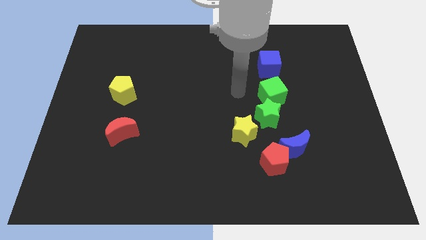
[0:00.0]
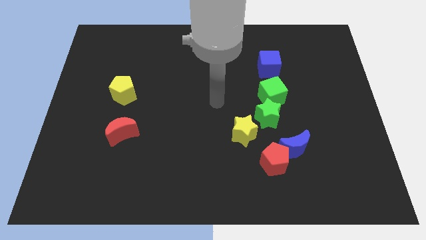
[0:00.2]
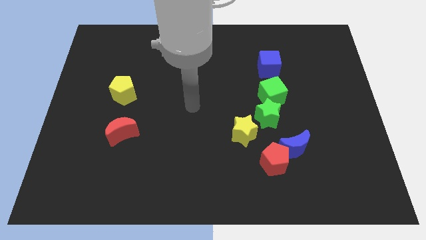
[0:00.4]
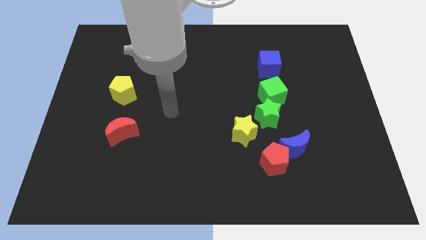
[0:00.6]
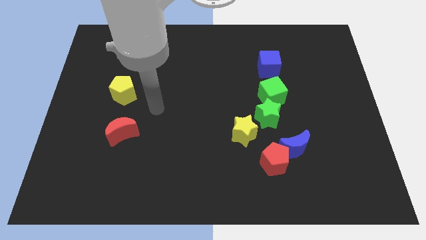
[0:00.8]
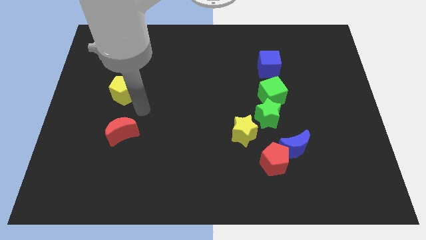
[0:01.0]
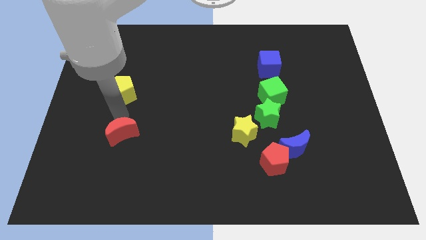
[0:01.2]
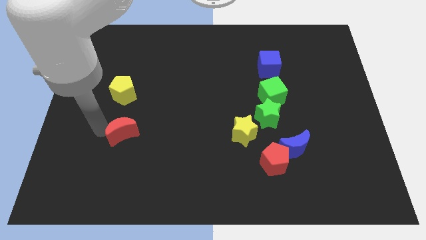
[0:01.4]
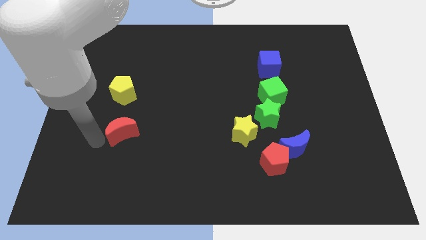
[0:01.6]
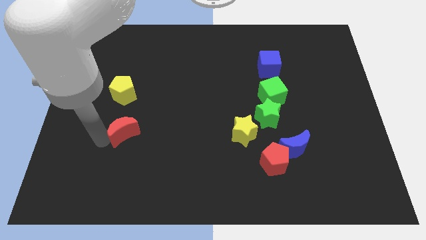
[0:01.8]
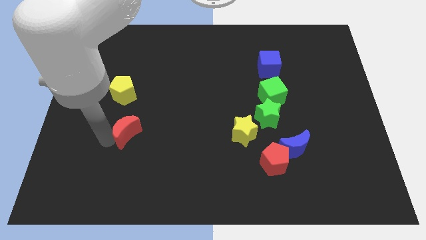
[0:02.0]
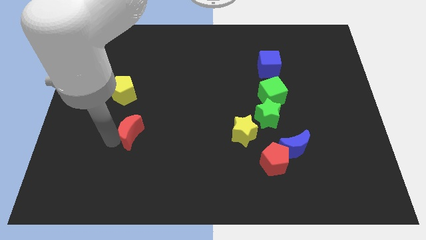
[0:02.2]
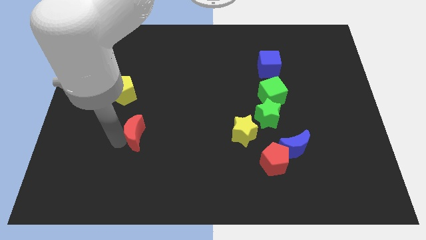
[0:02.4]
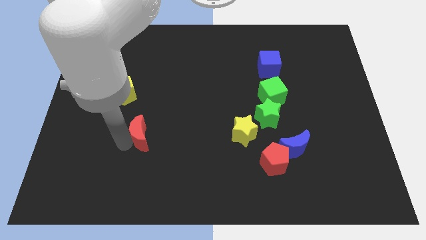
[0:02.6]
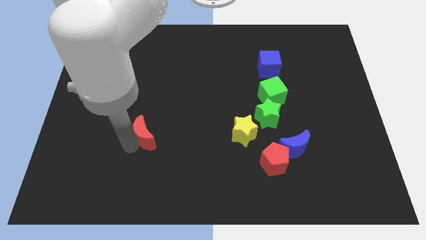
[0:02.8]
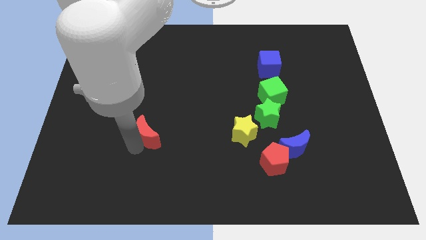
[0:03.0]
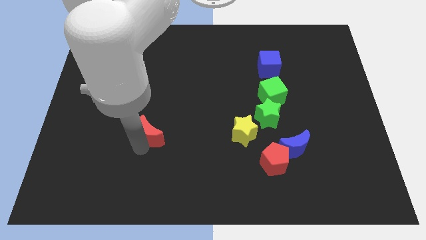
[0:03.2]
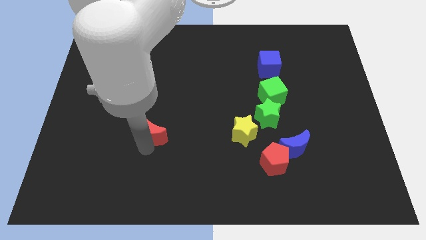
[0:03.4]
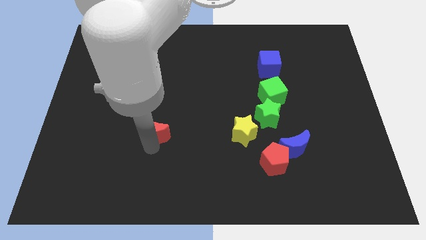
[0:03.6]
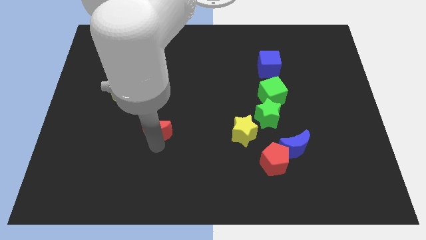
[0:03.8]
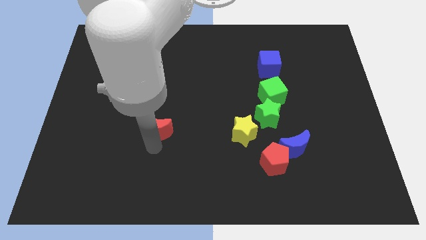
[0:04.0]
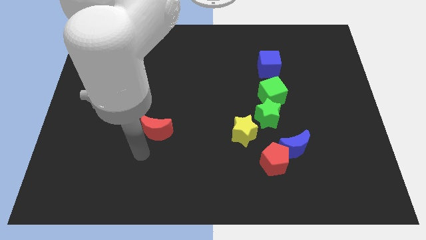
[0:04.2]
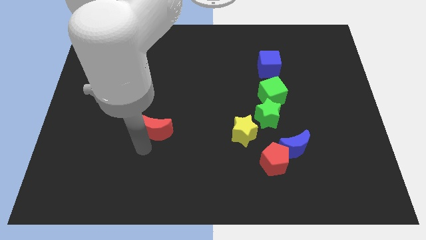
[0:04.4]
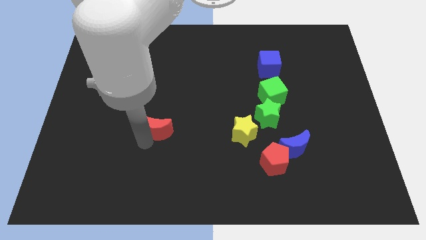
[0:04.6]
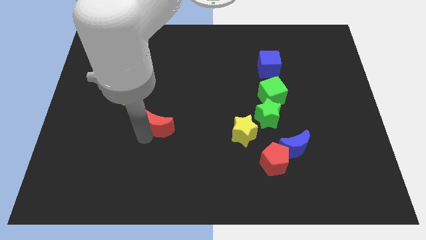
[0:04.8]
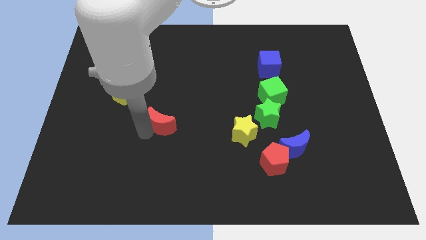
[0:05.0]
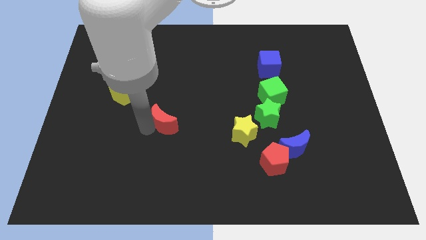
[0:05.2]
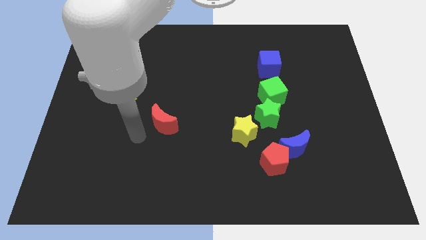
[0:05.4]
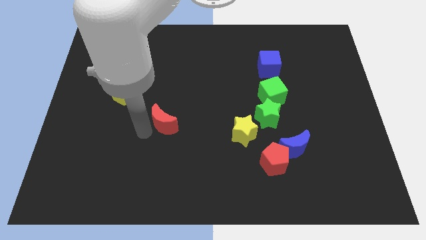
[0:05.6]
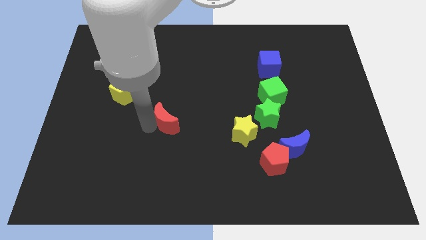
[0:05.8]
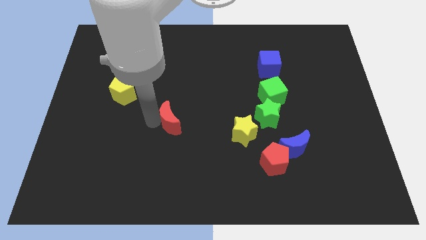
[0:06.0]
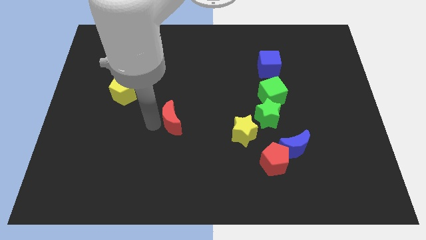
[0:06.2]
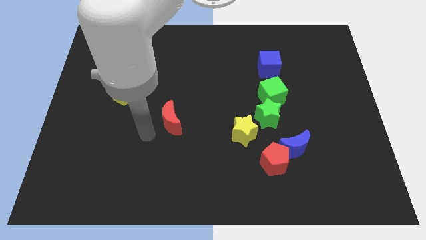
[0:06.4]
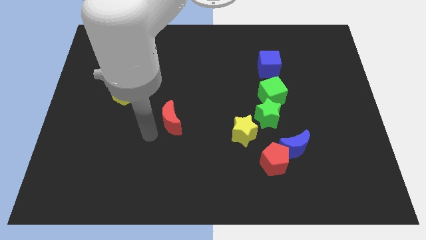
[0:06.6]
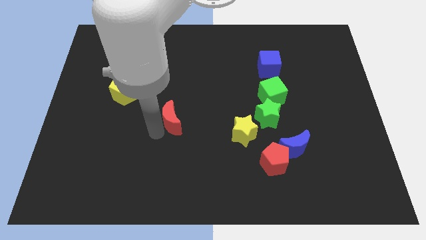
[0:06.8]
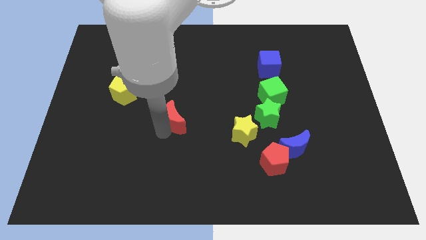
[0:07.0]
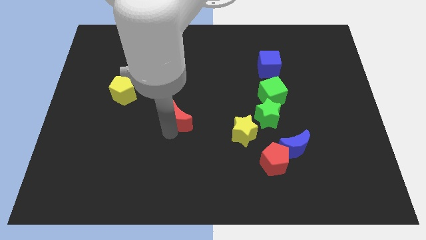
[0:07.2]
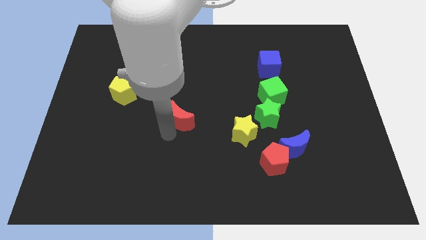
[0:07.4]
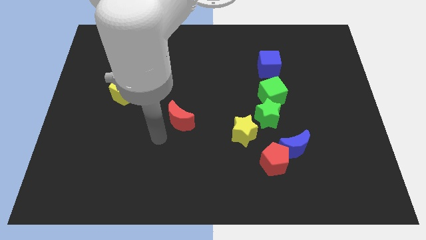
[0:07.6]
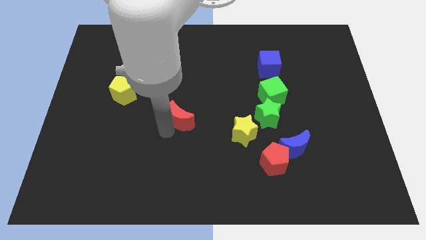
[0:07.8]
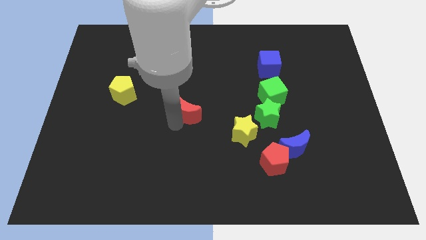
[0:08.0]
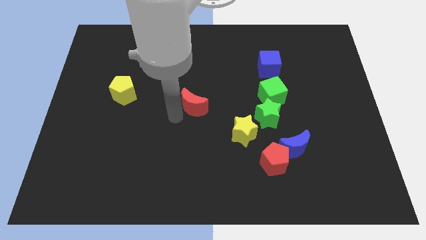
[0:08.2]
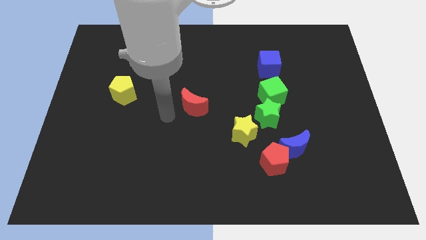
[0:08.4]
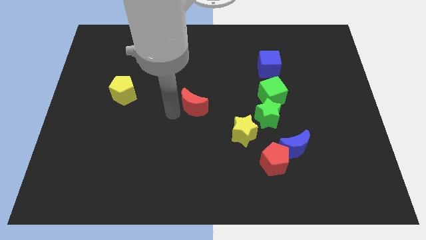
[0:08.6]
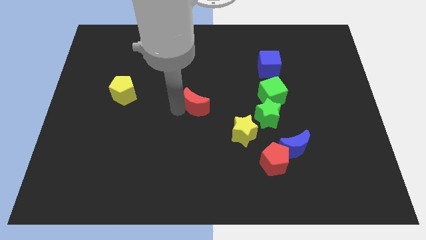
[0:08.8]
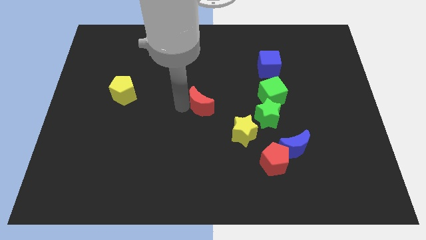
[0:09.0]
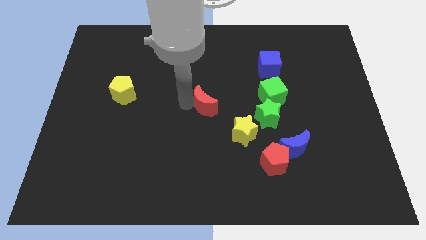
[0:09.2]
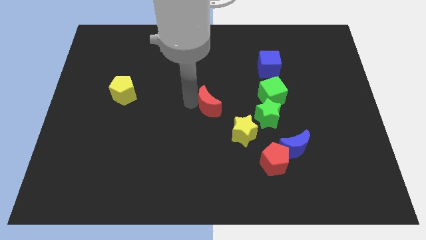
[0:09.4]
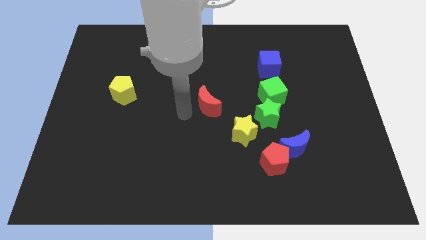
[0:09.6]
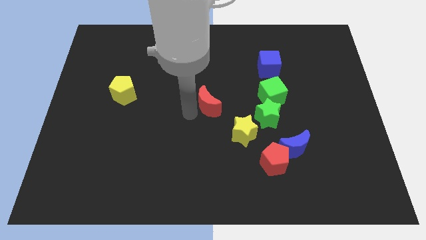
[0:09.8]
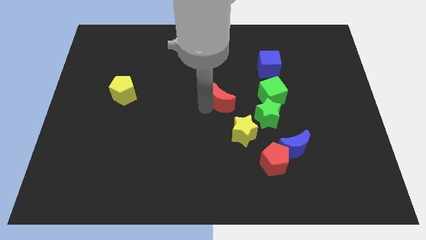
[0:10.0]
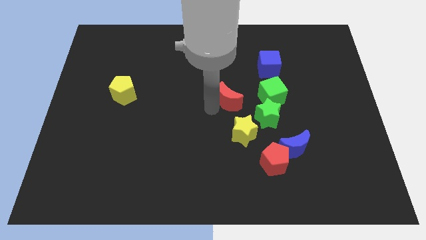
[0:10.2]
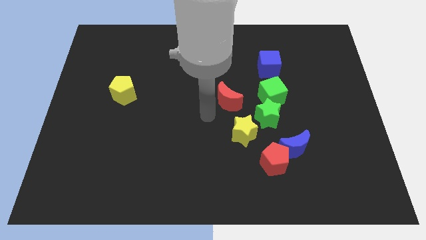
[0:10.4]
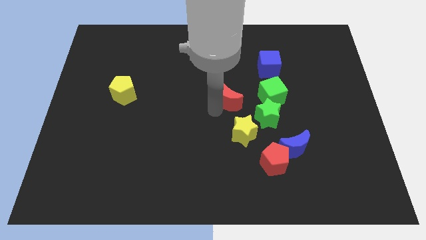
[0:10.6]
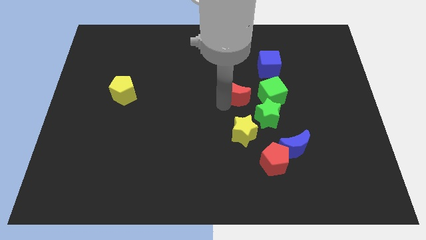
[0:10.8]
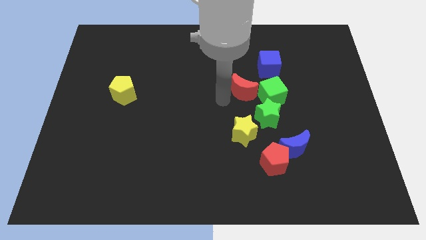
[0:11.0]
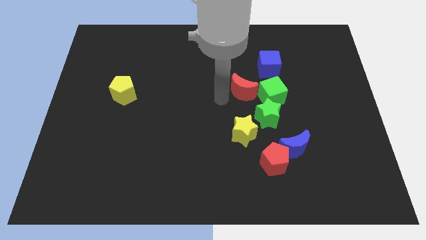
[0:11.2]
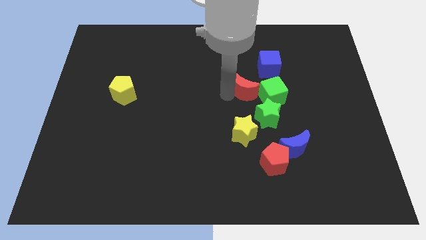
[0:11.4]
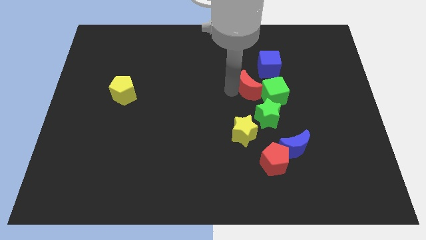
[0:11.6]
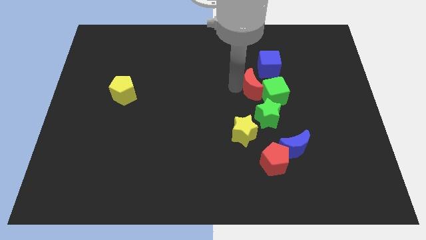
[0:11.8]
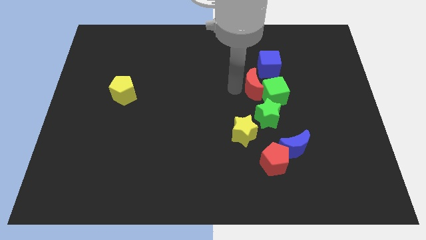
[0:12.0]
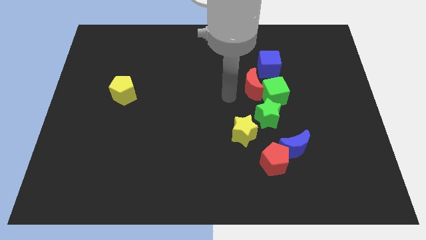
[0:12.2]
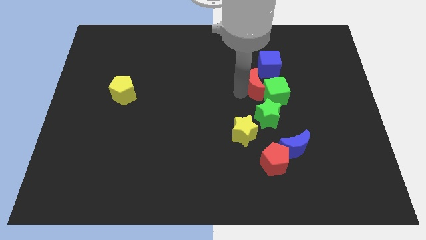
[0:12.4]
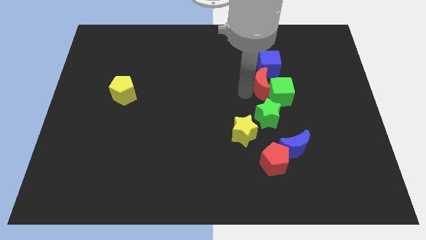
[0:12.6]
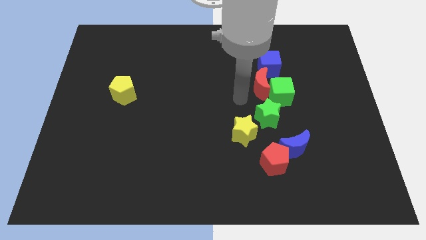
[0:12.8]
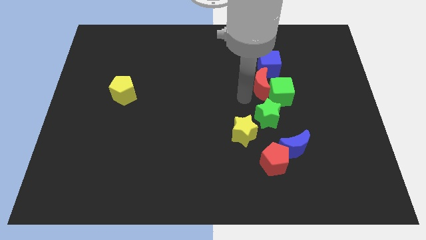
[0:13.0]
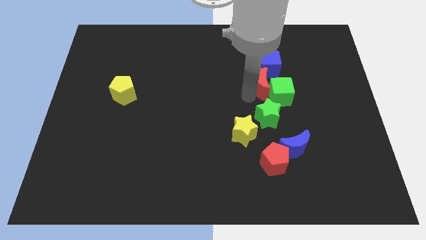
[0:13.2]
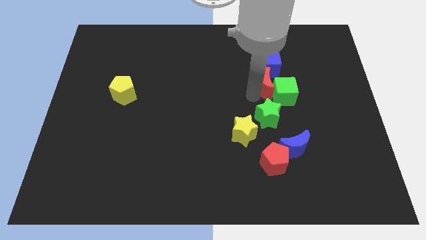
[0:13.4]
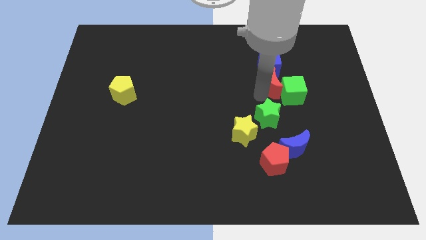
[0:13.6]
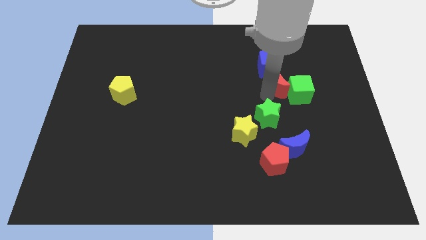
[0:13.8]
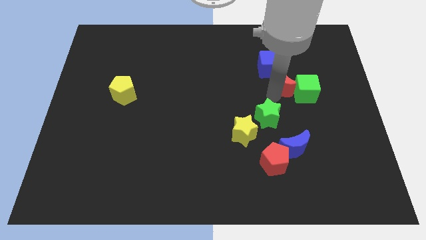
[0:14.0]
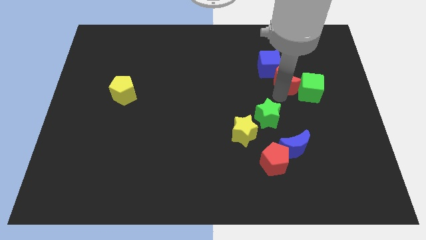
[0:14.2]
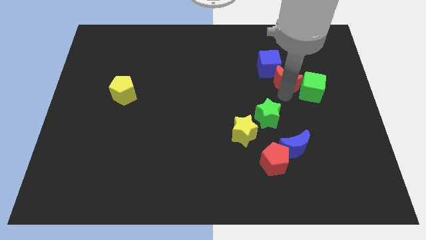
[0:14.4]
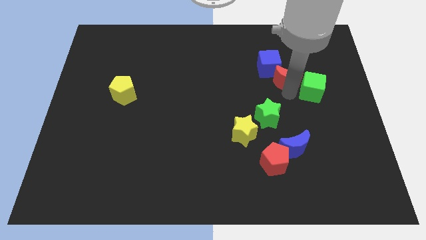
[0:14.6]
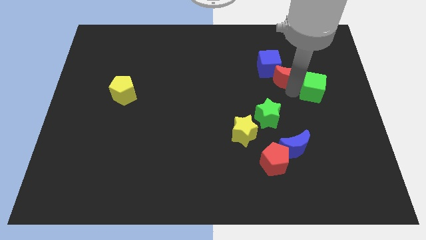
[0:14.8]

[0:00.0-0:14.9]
move the red moon just right of the blue cube
